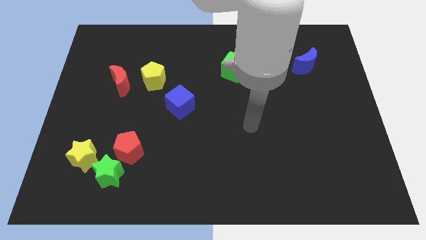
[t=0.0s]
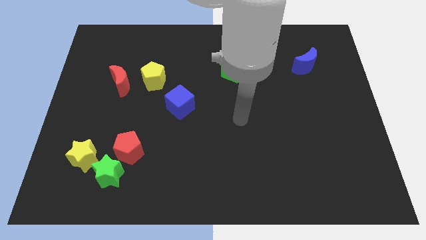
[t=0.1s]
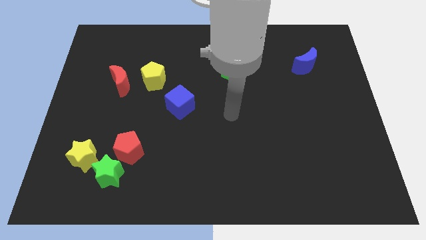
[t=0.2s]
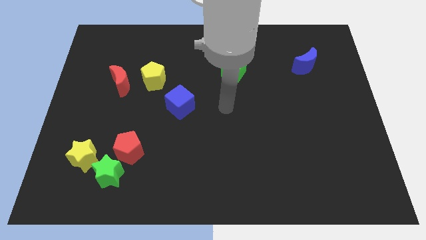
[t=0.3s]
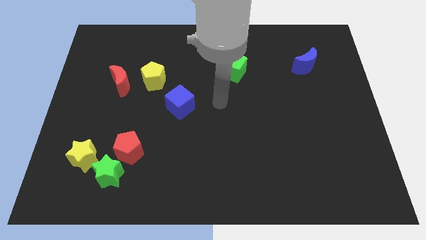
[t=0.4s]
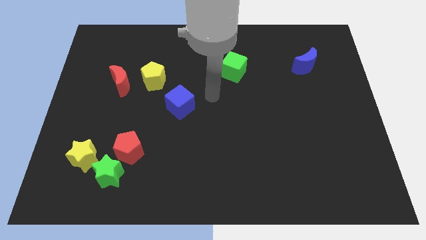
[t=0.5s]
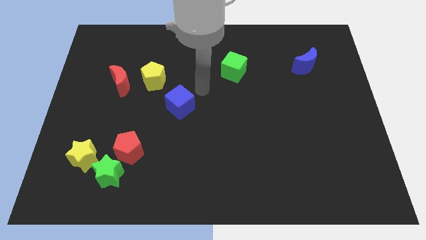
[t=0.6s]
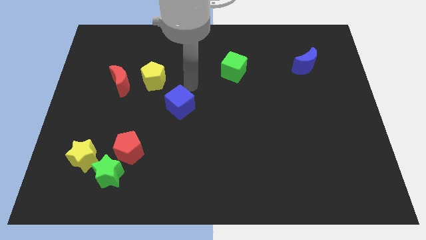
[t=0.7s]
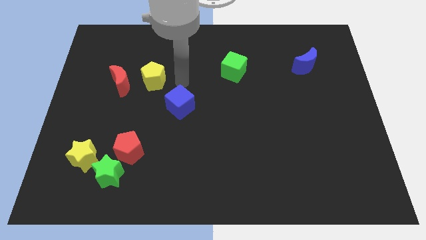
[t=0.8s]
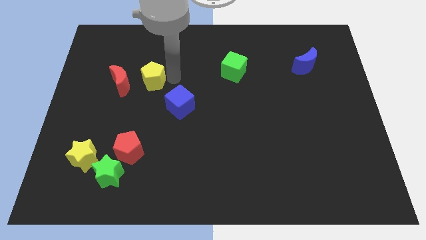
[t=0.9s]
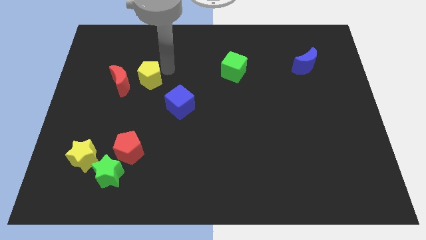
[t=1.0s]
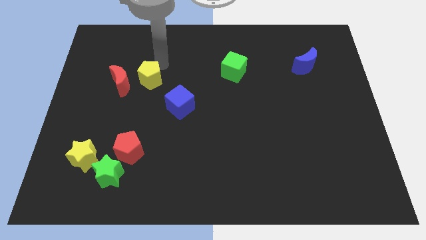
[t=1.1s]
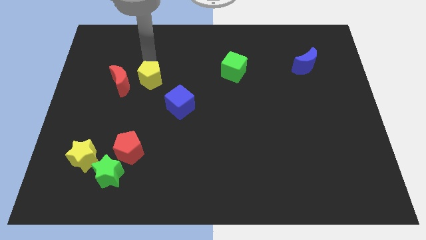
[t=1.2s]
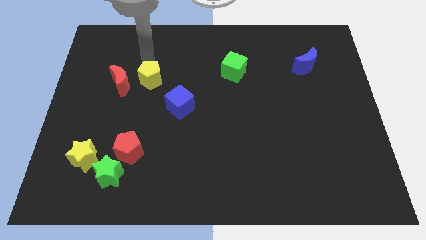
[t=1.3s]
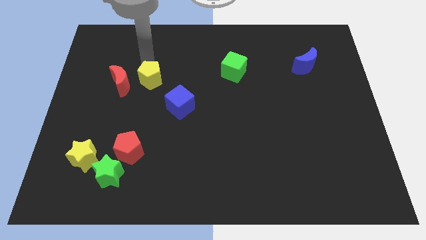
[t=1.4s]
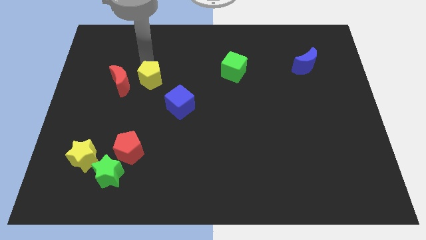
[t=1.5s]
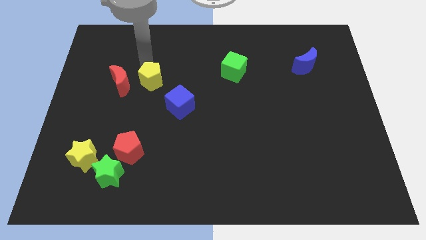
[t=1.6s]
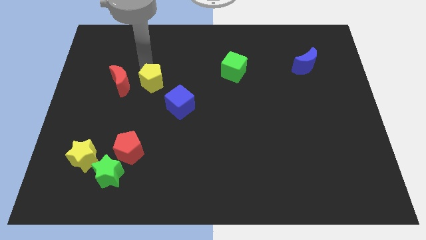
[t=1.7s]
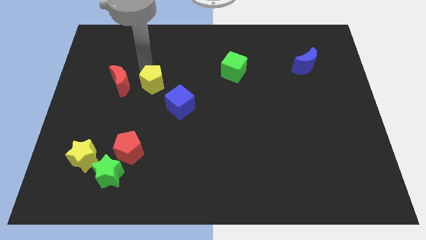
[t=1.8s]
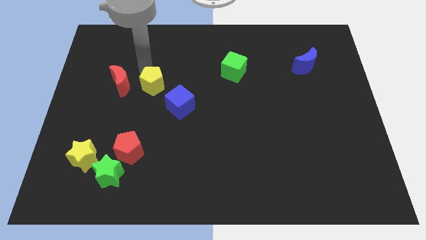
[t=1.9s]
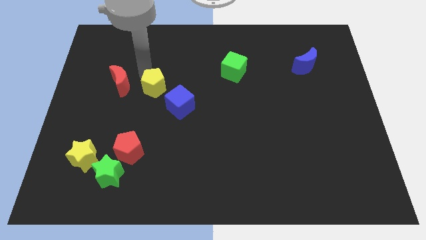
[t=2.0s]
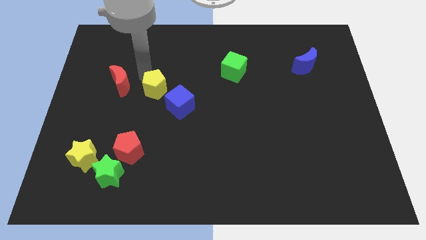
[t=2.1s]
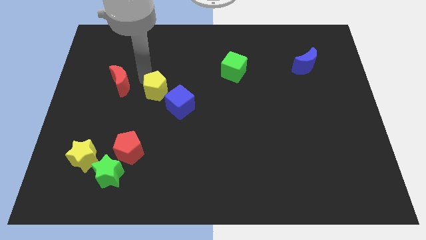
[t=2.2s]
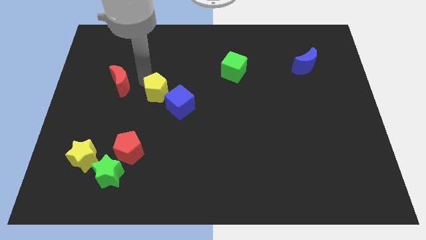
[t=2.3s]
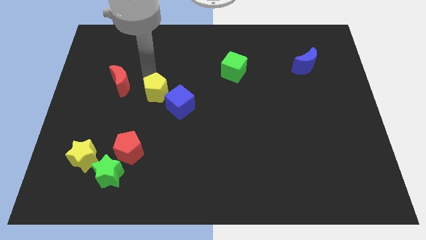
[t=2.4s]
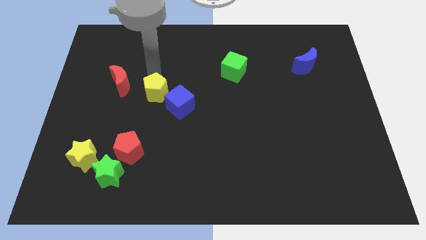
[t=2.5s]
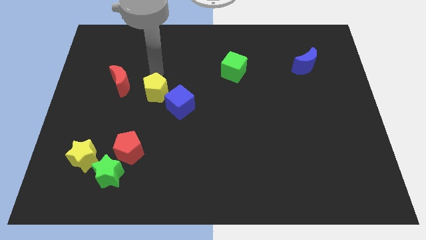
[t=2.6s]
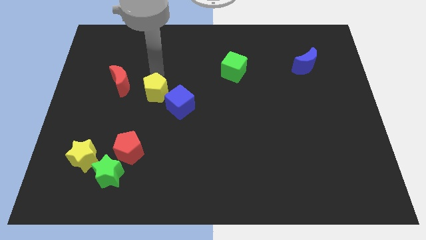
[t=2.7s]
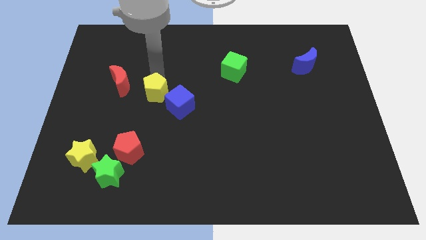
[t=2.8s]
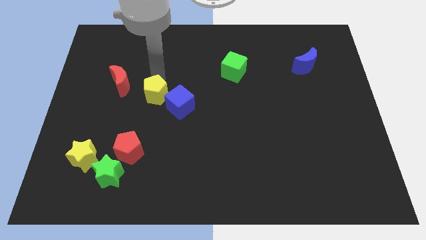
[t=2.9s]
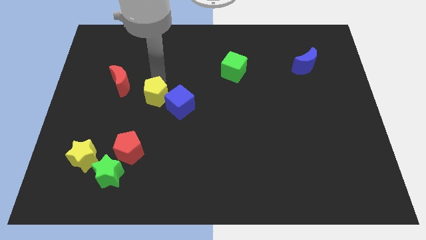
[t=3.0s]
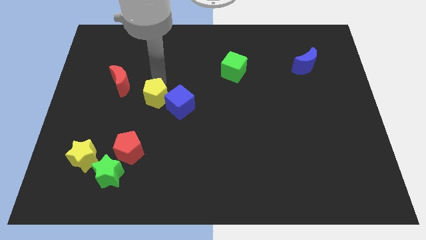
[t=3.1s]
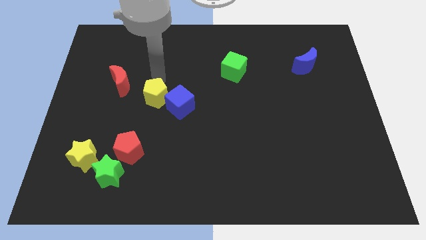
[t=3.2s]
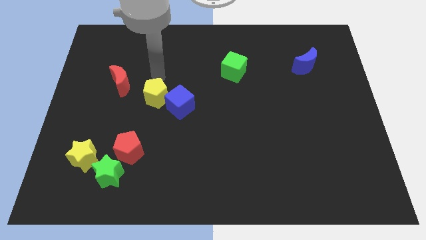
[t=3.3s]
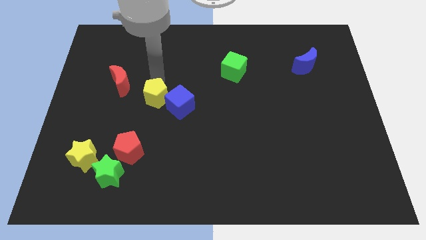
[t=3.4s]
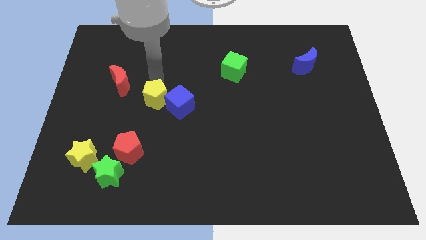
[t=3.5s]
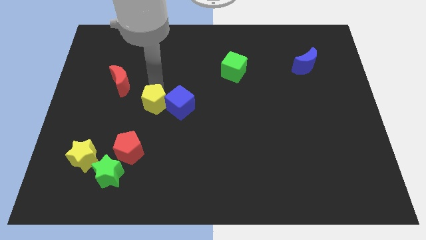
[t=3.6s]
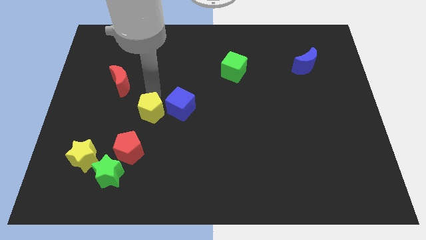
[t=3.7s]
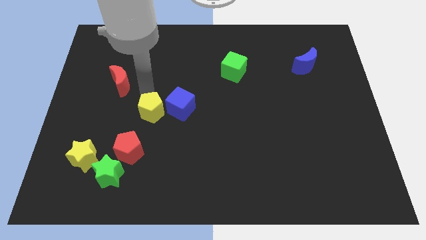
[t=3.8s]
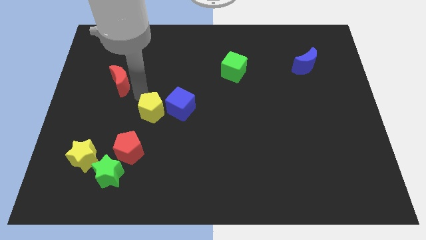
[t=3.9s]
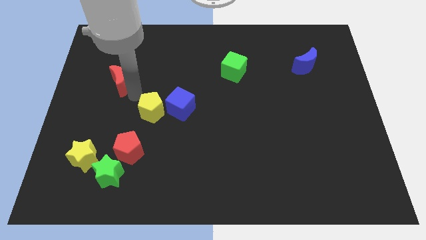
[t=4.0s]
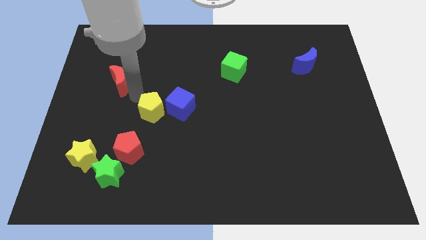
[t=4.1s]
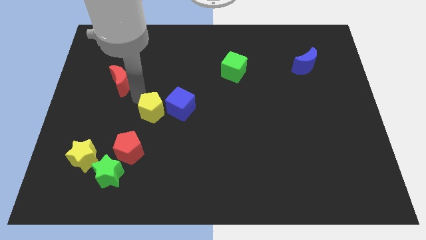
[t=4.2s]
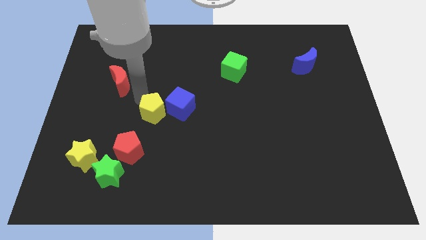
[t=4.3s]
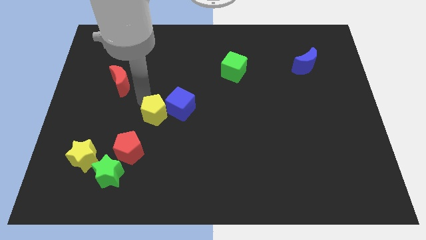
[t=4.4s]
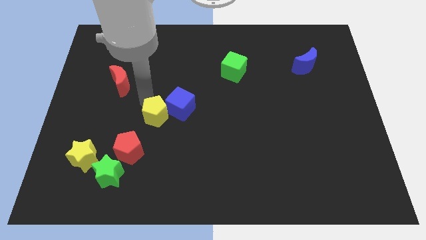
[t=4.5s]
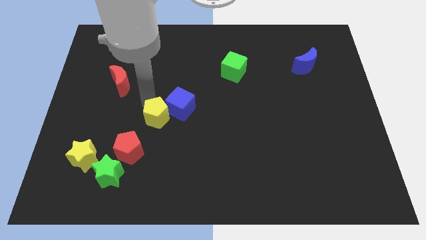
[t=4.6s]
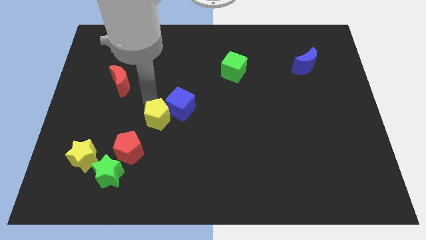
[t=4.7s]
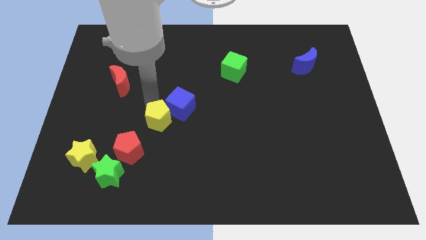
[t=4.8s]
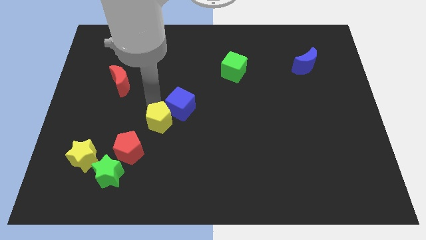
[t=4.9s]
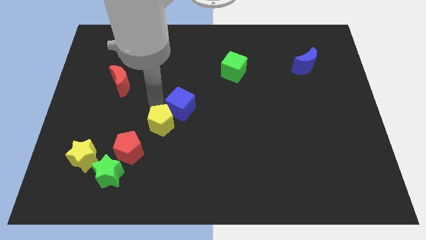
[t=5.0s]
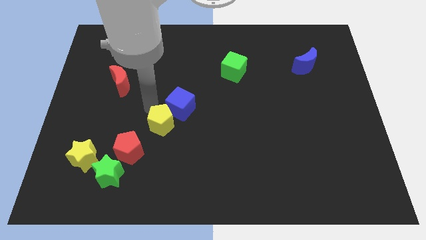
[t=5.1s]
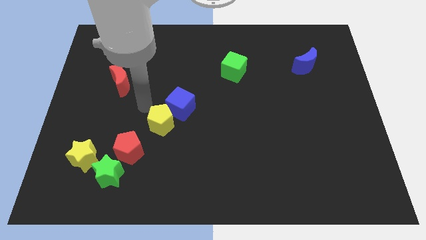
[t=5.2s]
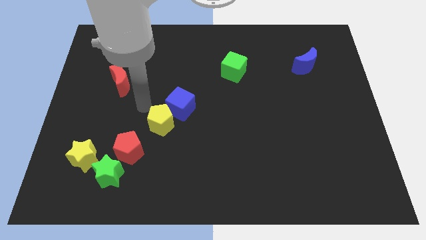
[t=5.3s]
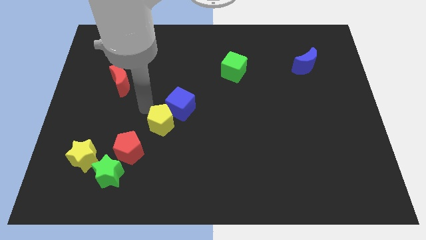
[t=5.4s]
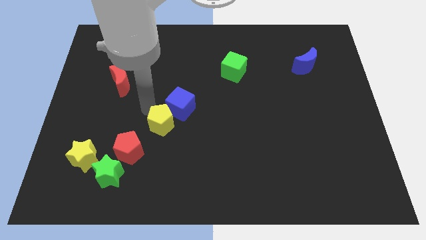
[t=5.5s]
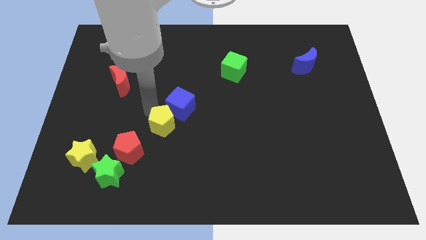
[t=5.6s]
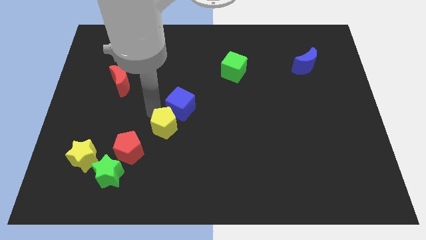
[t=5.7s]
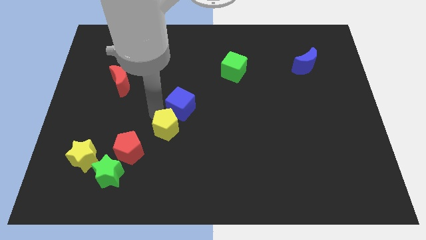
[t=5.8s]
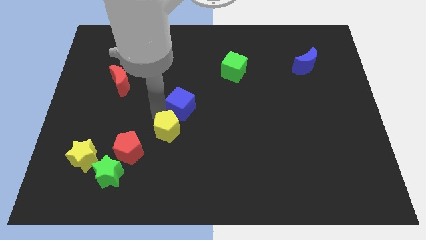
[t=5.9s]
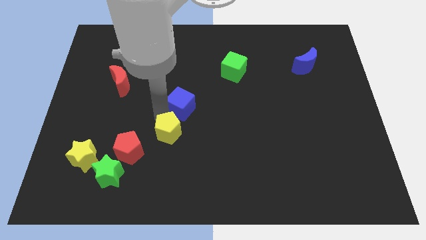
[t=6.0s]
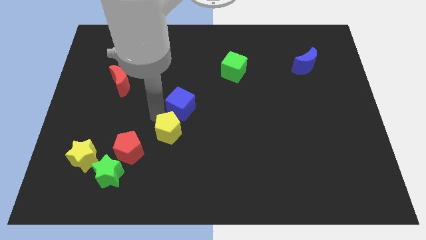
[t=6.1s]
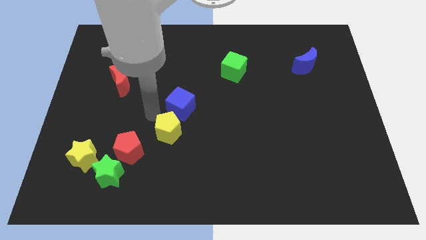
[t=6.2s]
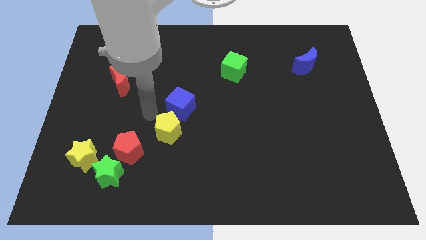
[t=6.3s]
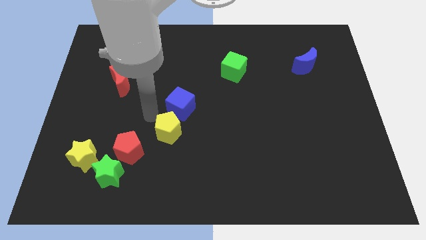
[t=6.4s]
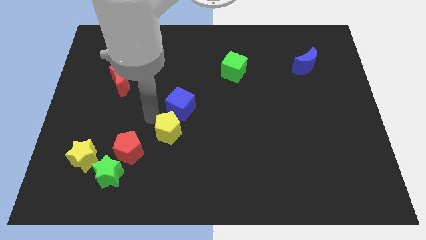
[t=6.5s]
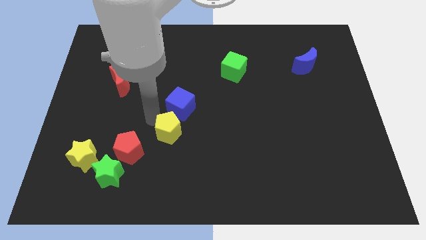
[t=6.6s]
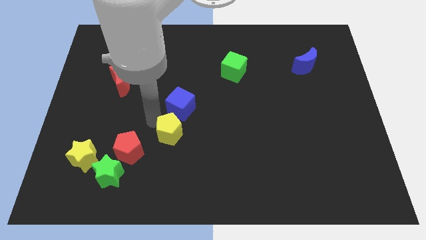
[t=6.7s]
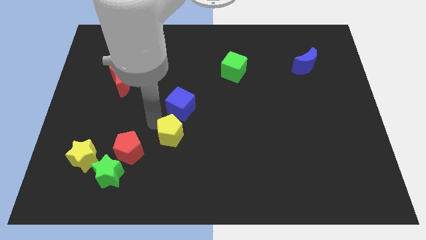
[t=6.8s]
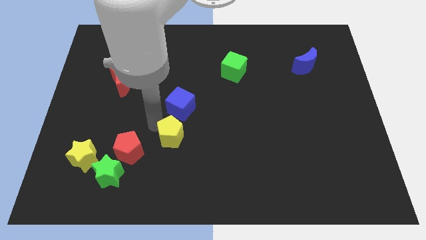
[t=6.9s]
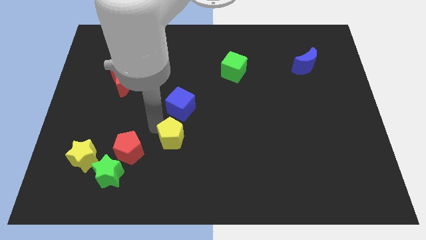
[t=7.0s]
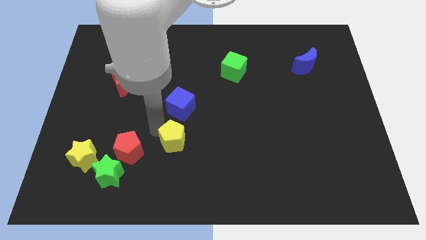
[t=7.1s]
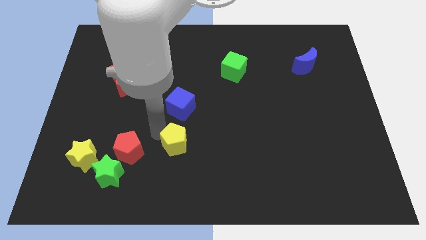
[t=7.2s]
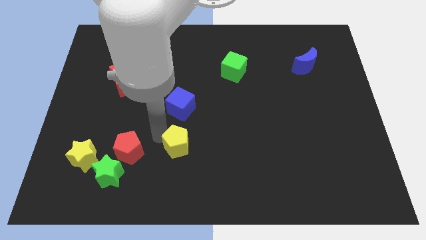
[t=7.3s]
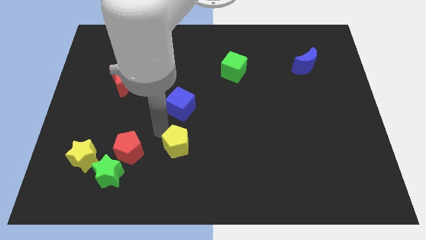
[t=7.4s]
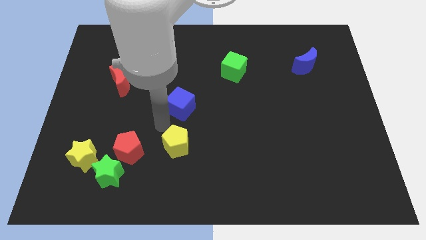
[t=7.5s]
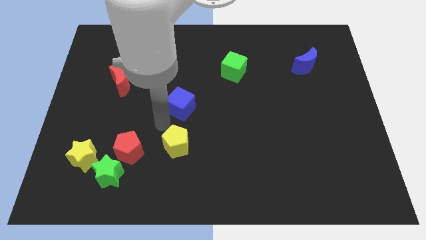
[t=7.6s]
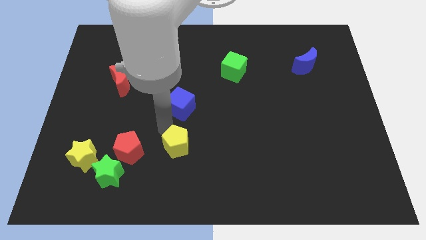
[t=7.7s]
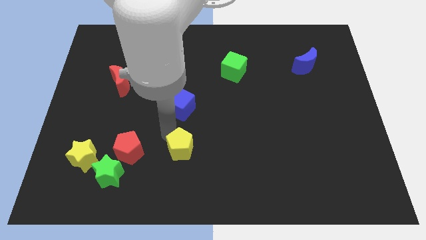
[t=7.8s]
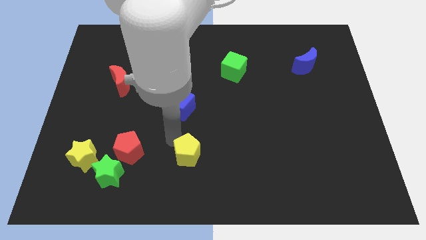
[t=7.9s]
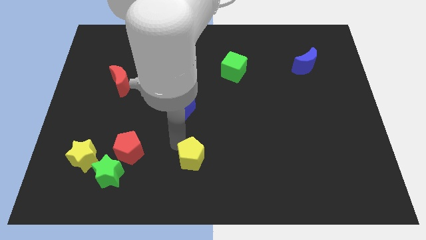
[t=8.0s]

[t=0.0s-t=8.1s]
move the yellow pentagon to the bottom
